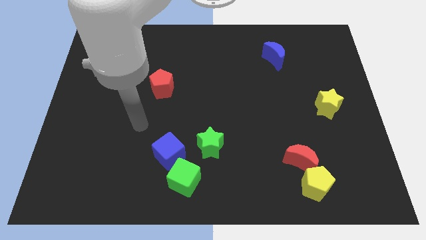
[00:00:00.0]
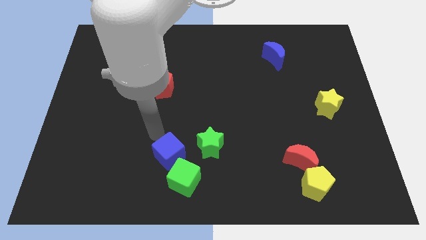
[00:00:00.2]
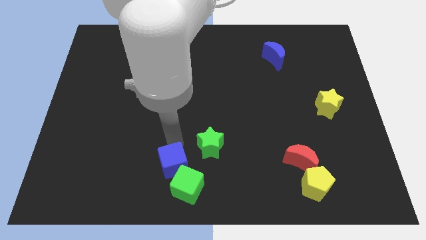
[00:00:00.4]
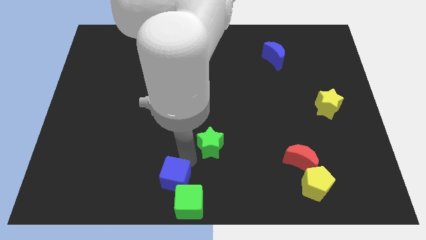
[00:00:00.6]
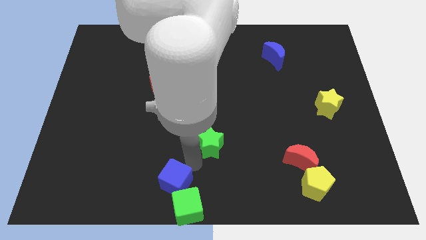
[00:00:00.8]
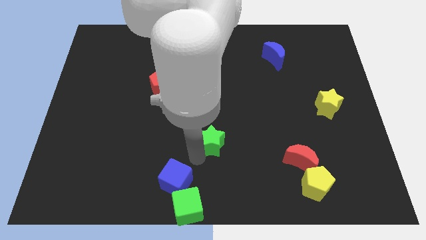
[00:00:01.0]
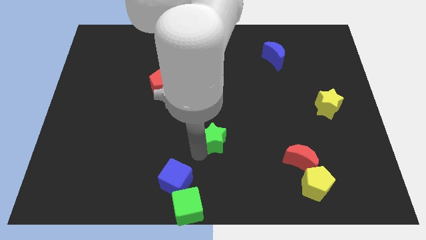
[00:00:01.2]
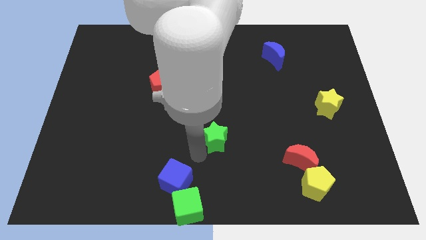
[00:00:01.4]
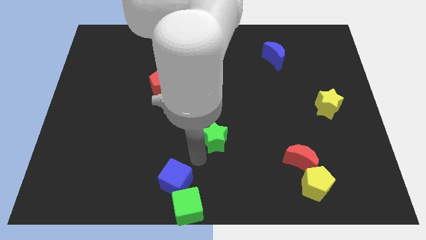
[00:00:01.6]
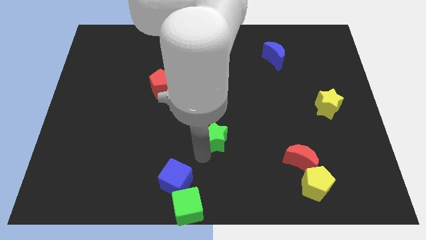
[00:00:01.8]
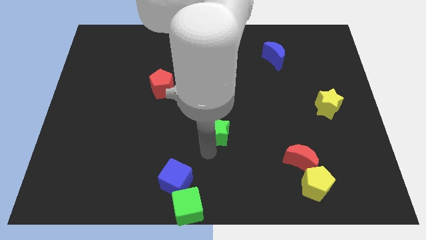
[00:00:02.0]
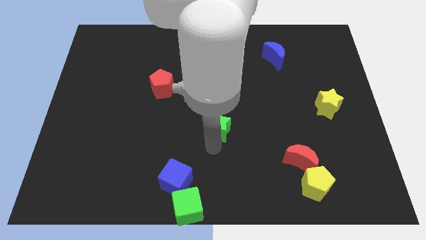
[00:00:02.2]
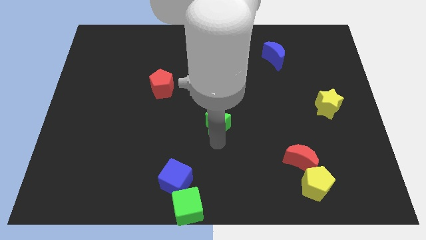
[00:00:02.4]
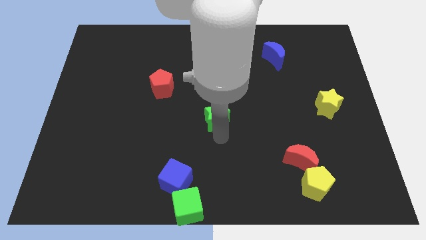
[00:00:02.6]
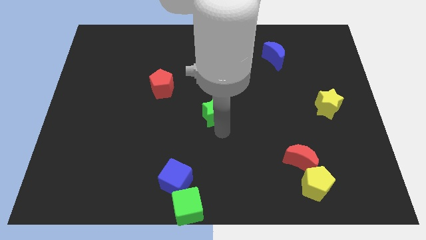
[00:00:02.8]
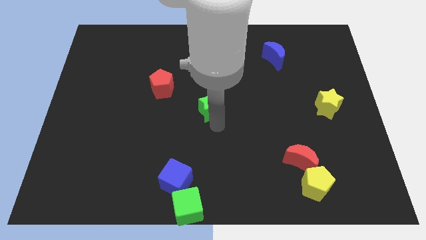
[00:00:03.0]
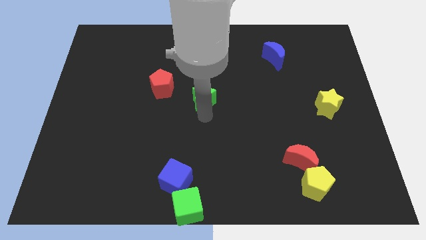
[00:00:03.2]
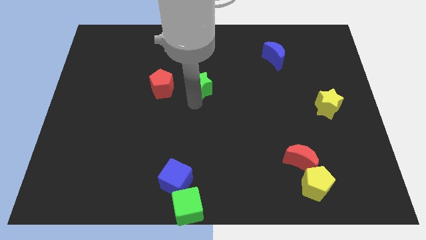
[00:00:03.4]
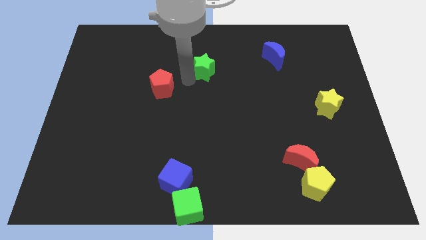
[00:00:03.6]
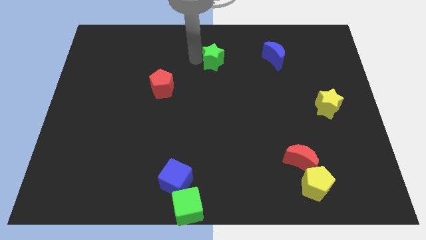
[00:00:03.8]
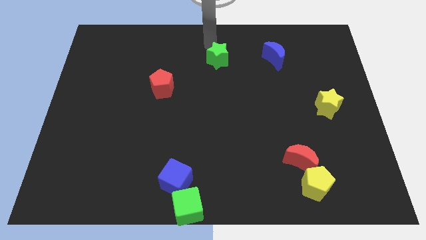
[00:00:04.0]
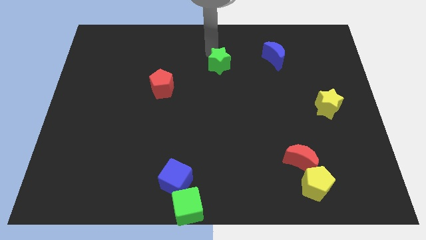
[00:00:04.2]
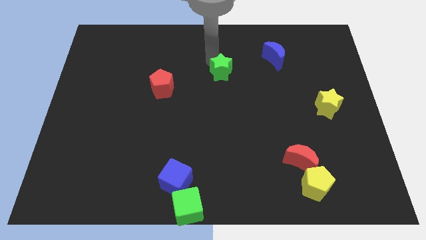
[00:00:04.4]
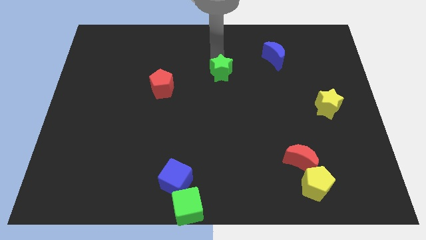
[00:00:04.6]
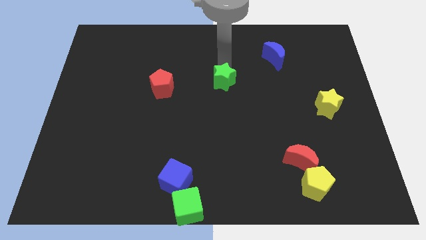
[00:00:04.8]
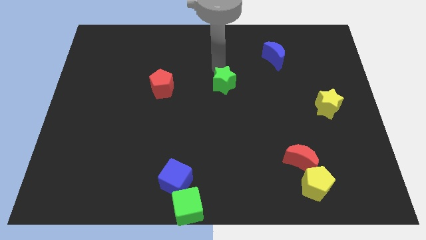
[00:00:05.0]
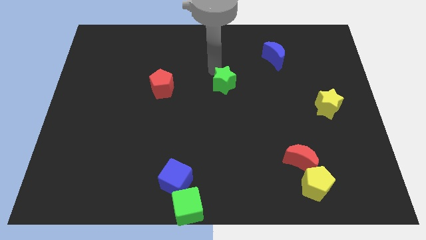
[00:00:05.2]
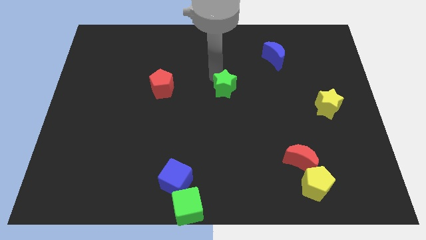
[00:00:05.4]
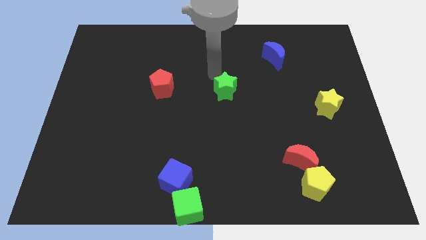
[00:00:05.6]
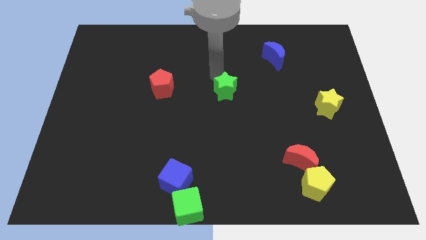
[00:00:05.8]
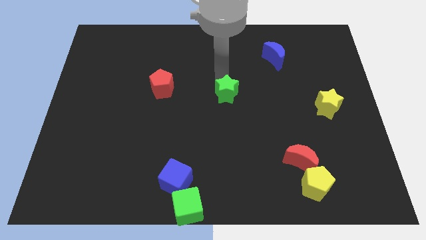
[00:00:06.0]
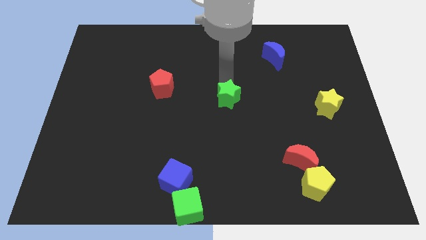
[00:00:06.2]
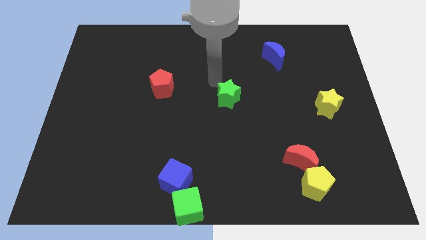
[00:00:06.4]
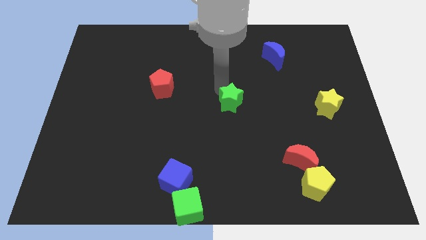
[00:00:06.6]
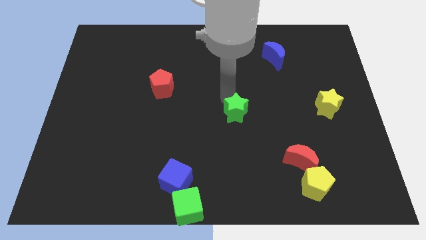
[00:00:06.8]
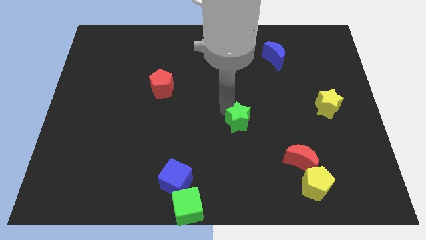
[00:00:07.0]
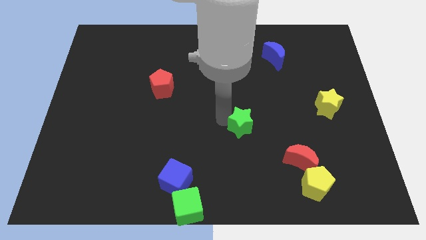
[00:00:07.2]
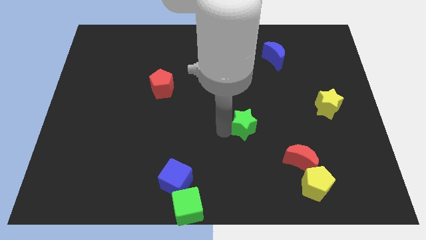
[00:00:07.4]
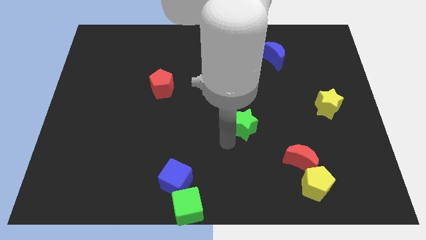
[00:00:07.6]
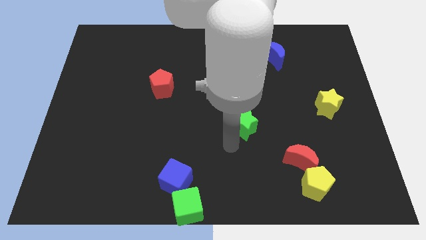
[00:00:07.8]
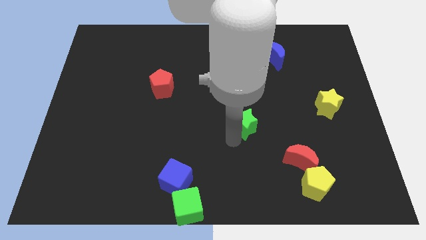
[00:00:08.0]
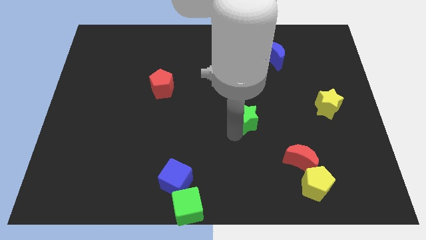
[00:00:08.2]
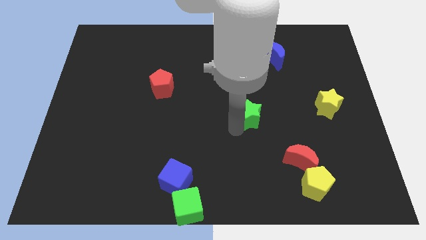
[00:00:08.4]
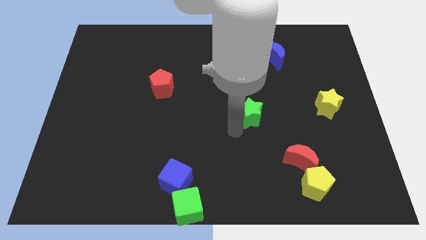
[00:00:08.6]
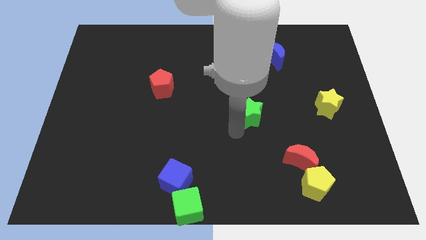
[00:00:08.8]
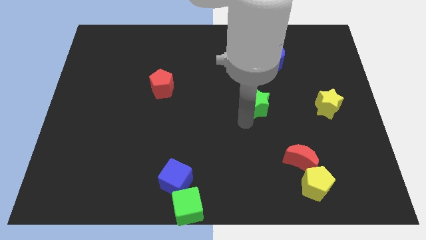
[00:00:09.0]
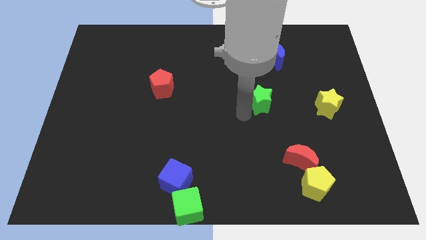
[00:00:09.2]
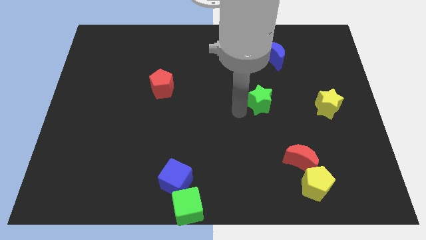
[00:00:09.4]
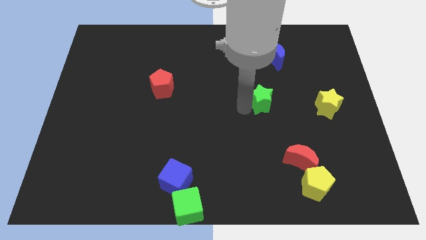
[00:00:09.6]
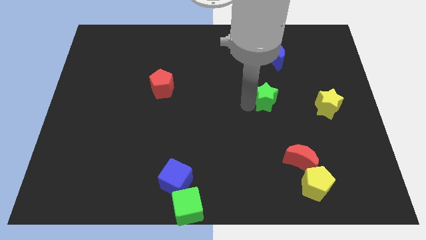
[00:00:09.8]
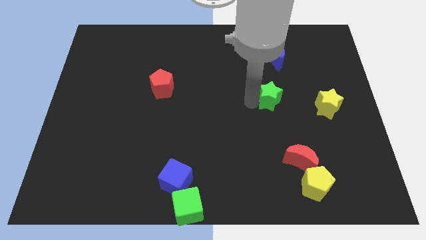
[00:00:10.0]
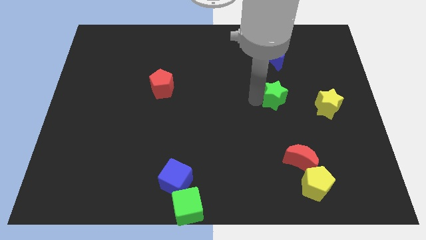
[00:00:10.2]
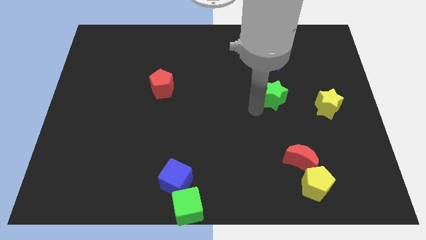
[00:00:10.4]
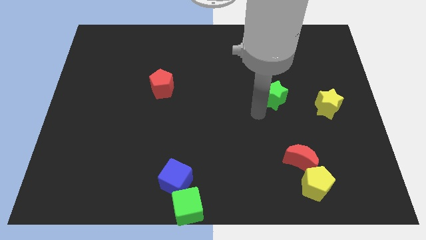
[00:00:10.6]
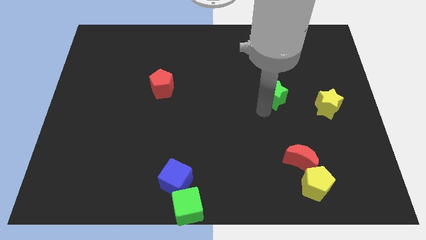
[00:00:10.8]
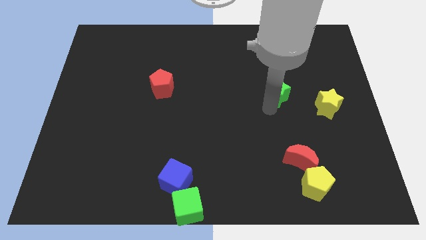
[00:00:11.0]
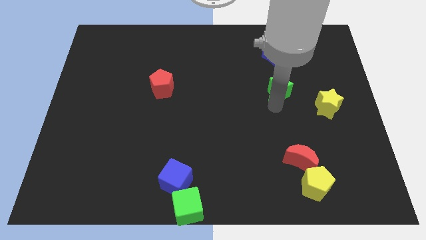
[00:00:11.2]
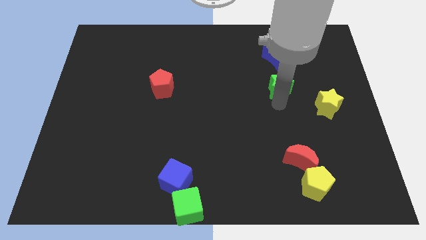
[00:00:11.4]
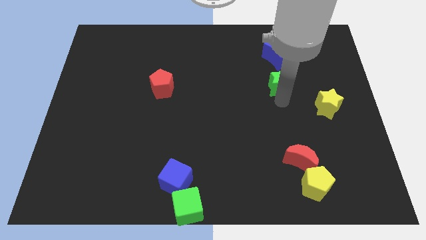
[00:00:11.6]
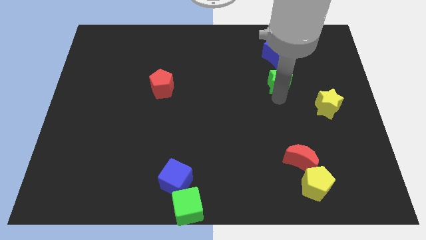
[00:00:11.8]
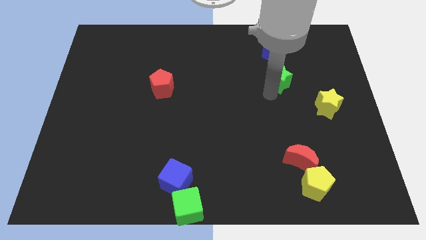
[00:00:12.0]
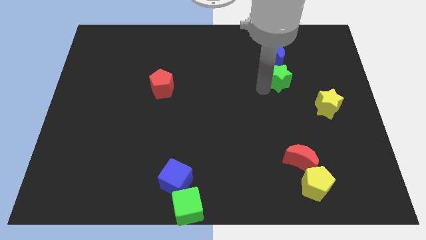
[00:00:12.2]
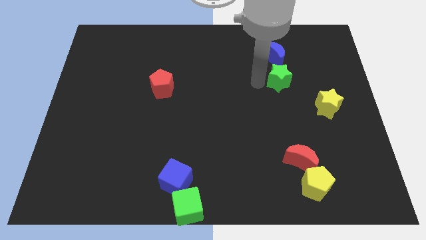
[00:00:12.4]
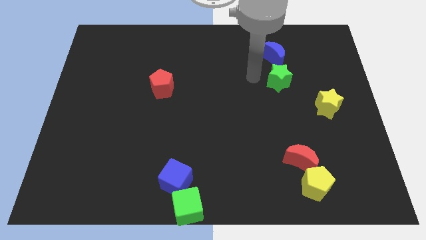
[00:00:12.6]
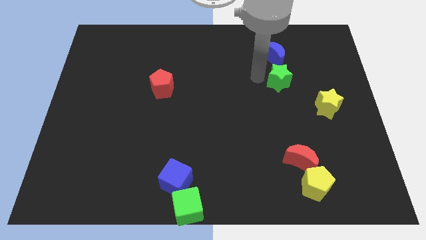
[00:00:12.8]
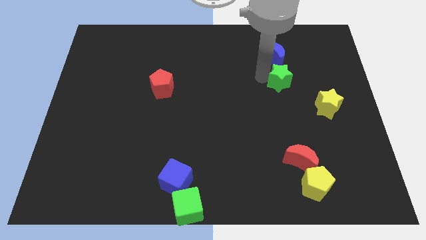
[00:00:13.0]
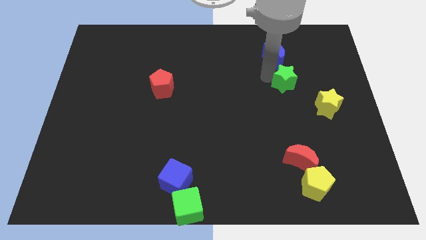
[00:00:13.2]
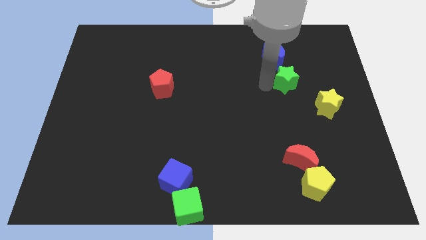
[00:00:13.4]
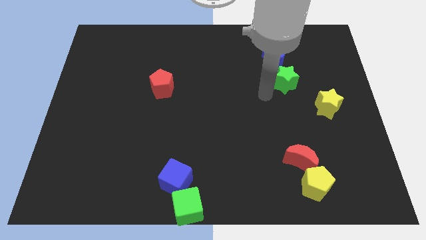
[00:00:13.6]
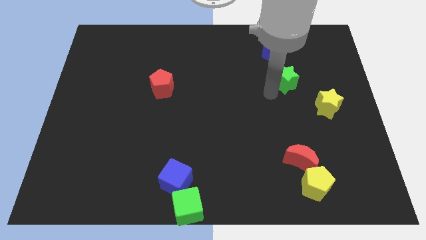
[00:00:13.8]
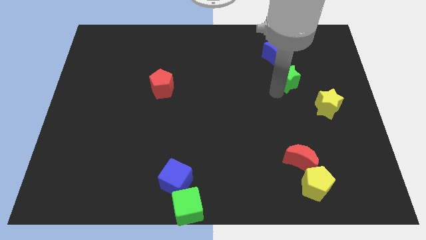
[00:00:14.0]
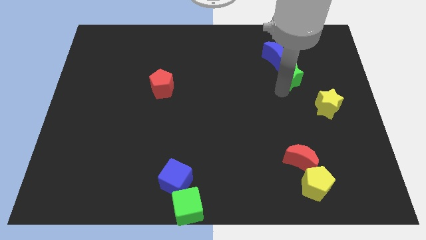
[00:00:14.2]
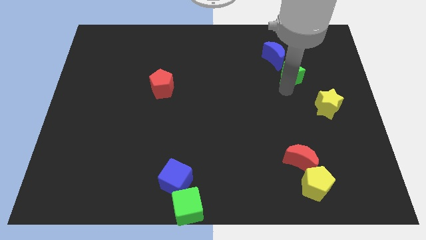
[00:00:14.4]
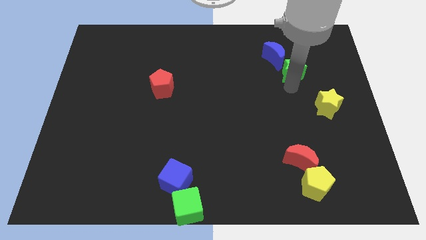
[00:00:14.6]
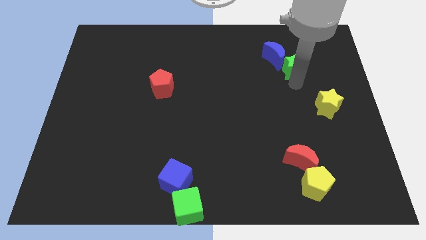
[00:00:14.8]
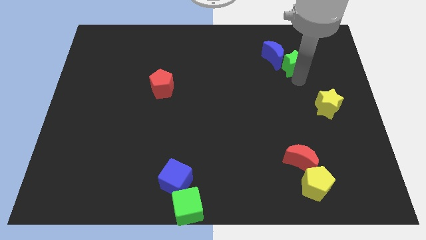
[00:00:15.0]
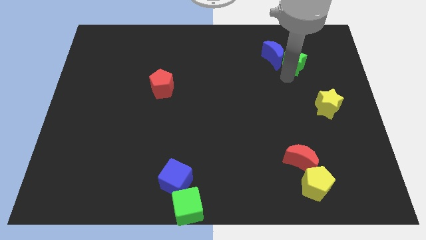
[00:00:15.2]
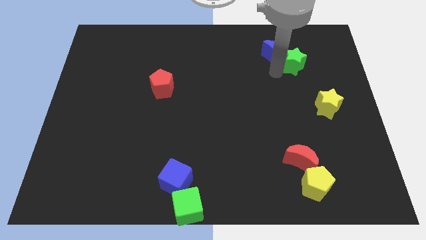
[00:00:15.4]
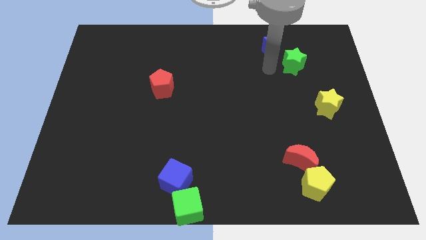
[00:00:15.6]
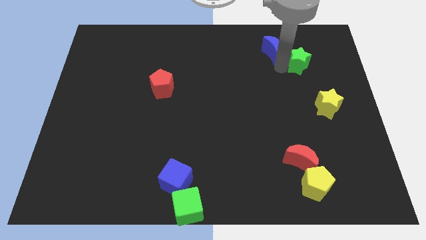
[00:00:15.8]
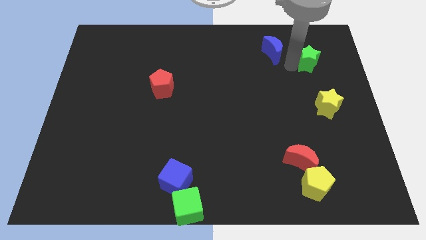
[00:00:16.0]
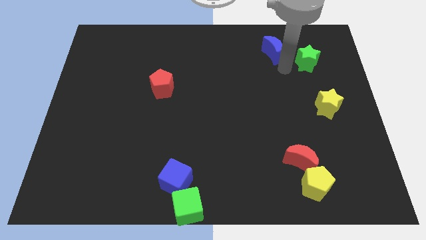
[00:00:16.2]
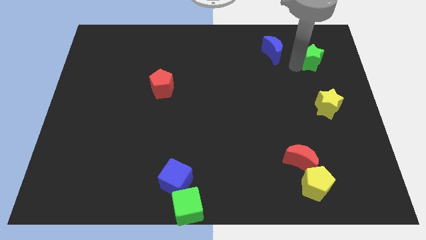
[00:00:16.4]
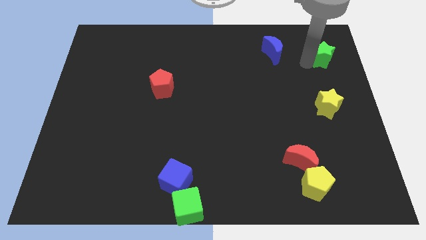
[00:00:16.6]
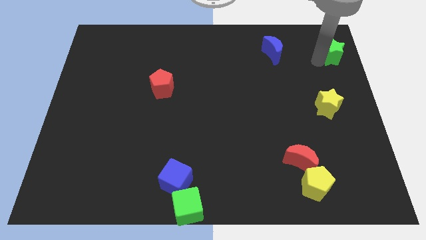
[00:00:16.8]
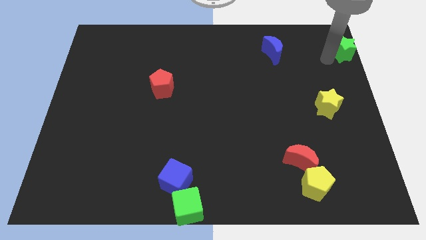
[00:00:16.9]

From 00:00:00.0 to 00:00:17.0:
put the green star to the top right corner
